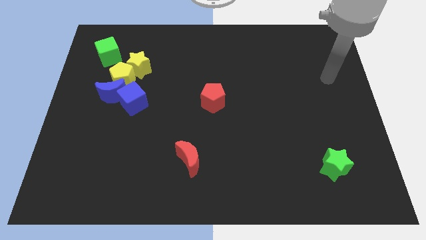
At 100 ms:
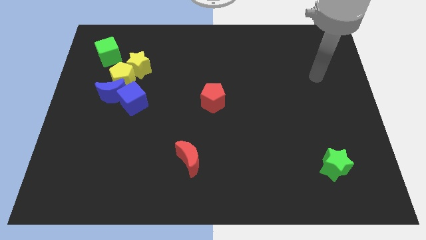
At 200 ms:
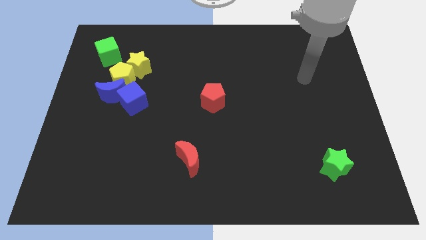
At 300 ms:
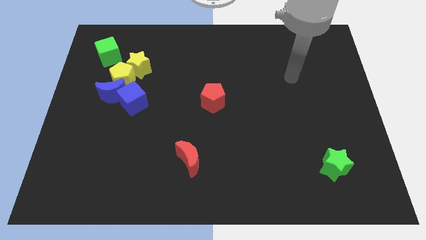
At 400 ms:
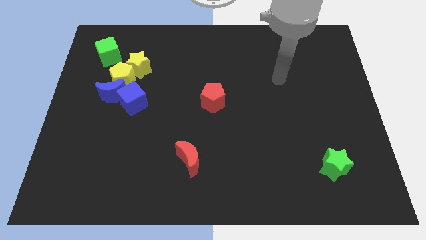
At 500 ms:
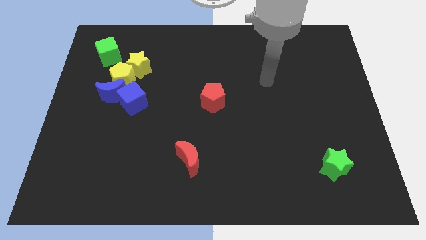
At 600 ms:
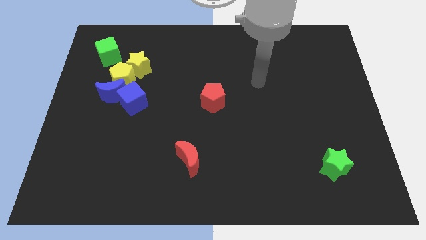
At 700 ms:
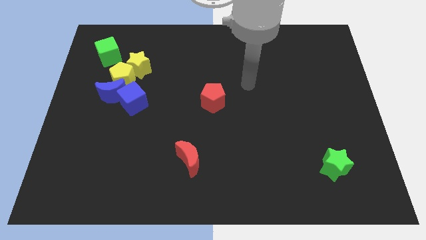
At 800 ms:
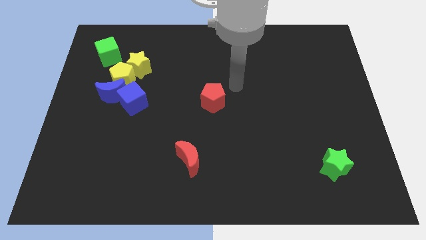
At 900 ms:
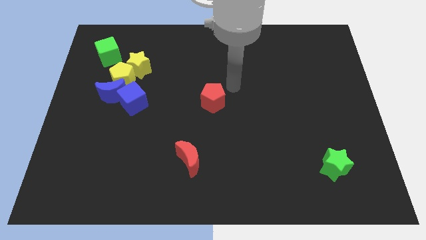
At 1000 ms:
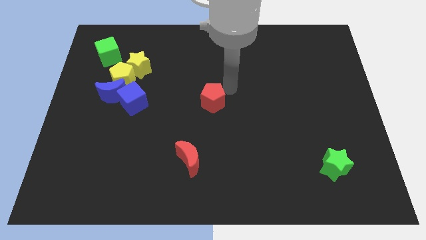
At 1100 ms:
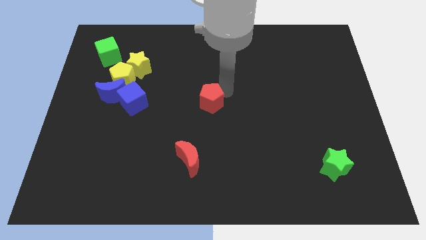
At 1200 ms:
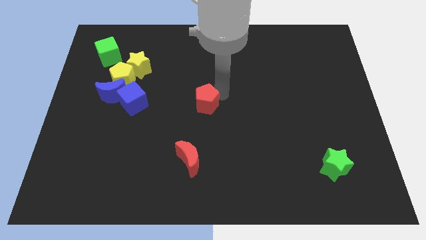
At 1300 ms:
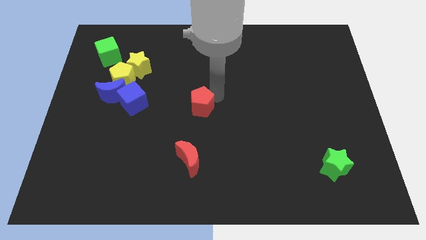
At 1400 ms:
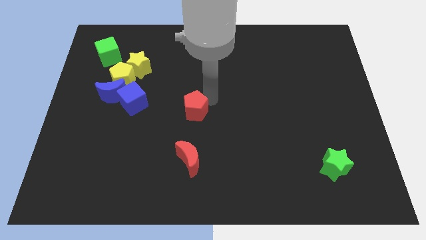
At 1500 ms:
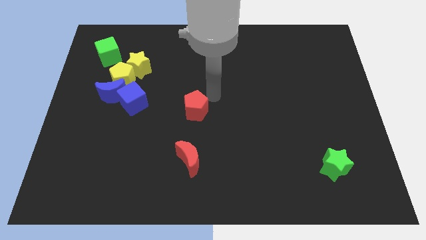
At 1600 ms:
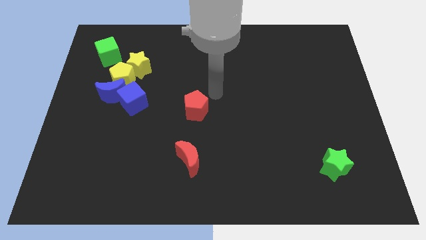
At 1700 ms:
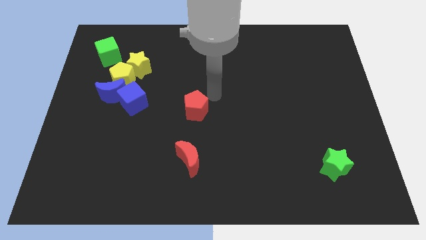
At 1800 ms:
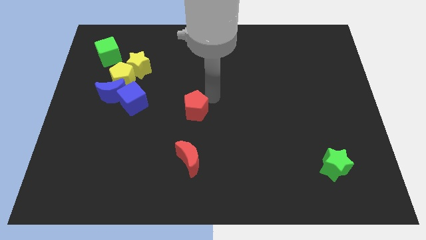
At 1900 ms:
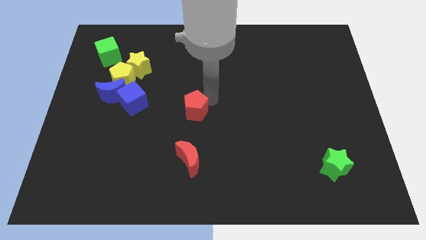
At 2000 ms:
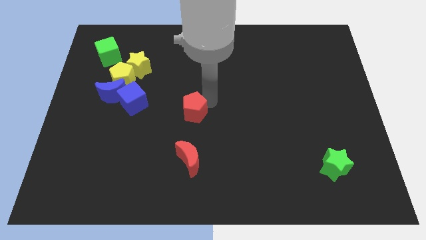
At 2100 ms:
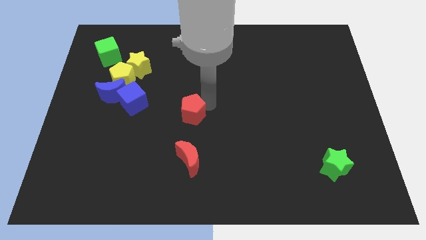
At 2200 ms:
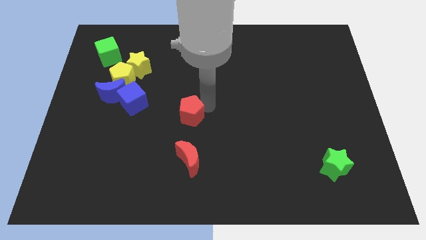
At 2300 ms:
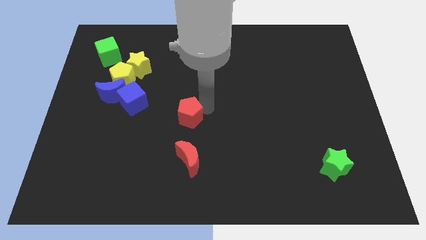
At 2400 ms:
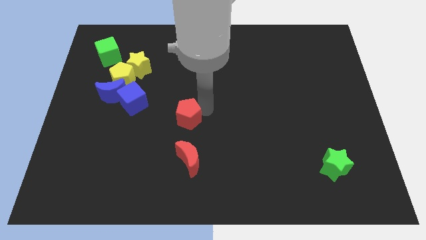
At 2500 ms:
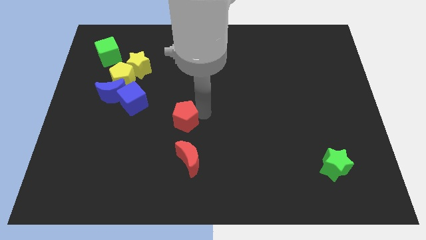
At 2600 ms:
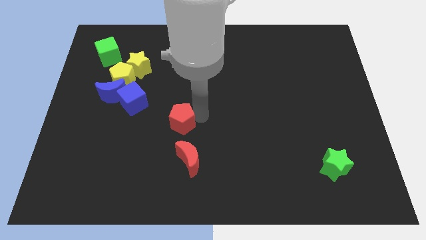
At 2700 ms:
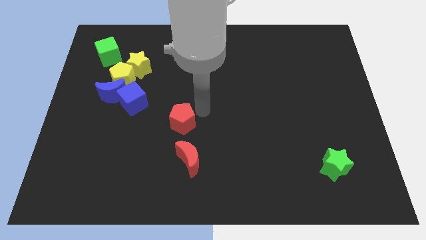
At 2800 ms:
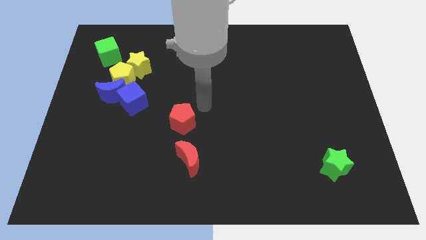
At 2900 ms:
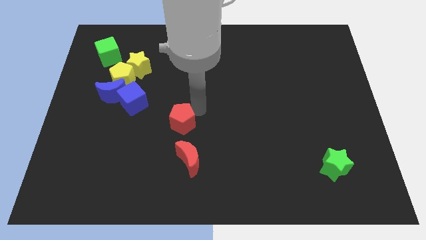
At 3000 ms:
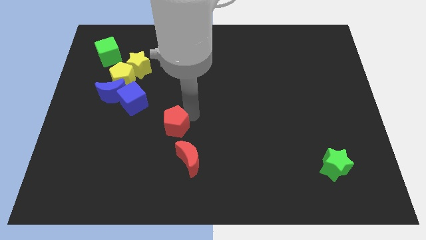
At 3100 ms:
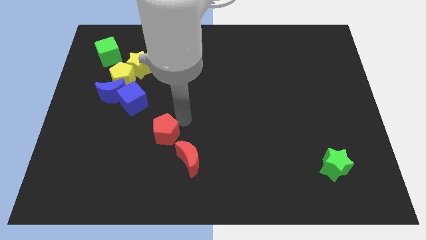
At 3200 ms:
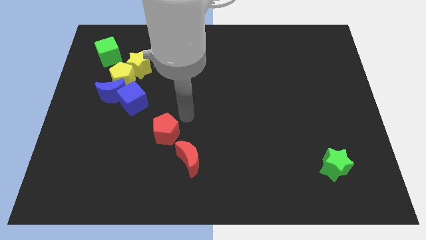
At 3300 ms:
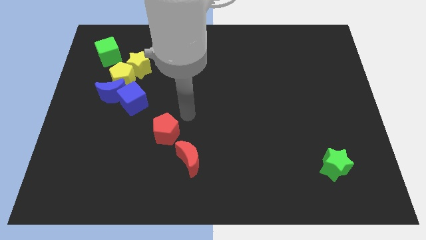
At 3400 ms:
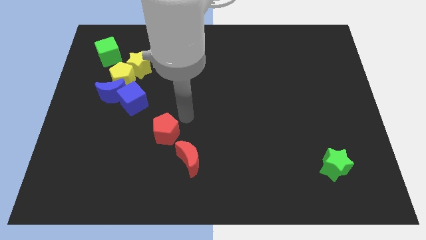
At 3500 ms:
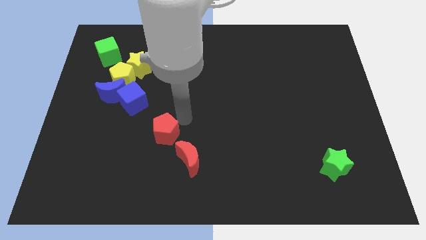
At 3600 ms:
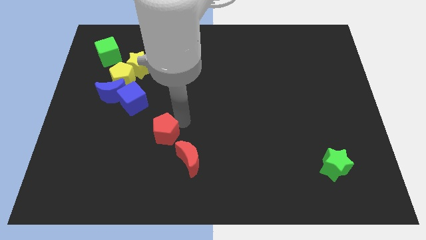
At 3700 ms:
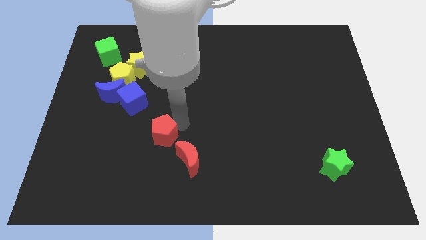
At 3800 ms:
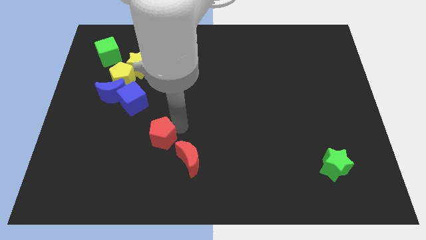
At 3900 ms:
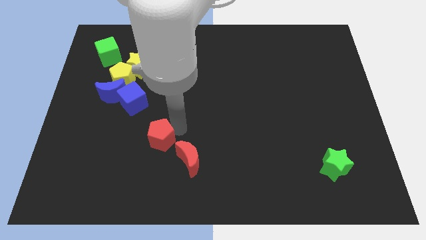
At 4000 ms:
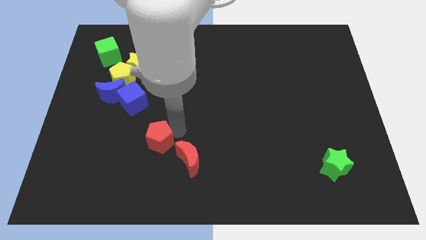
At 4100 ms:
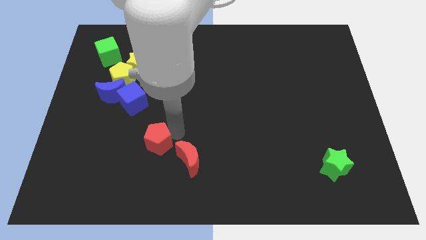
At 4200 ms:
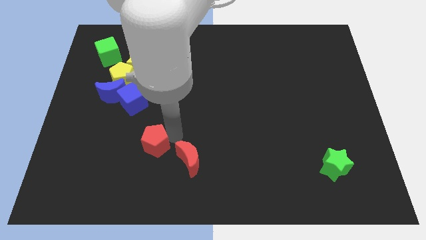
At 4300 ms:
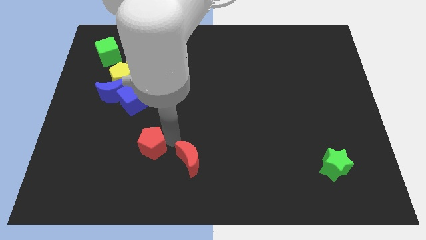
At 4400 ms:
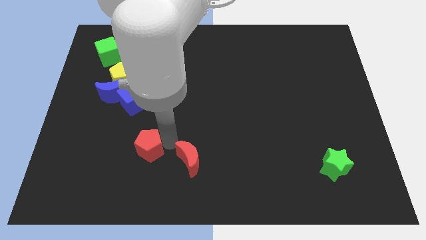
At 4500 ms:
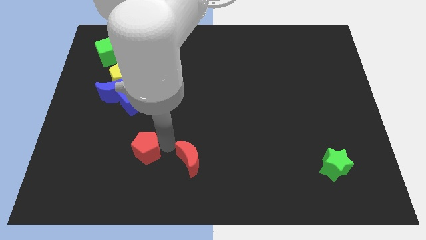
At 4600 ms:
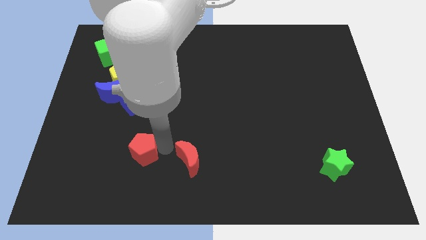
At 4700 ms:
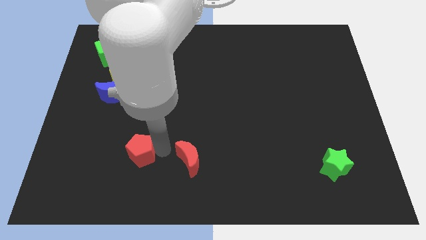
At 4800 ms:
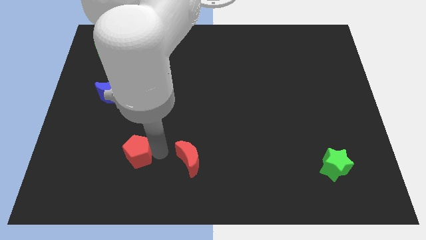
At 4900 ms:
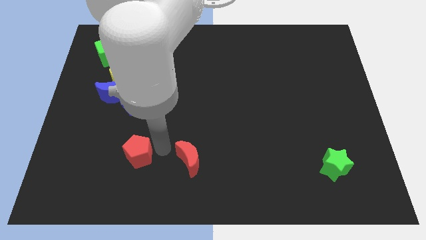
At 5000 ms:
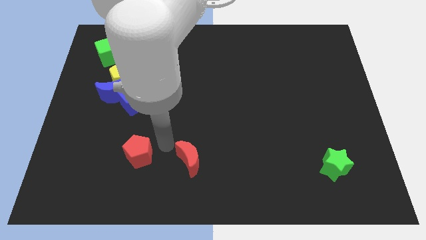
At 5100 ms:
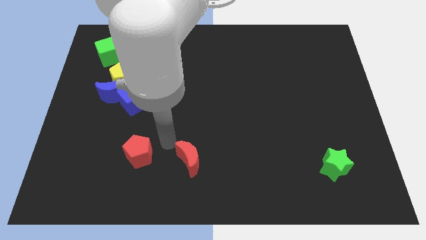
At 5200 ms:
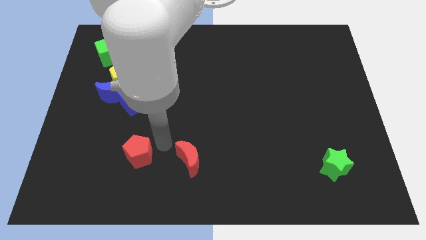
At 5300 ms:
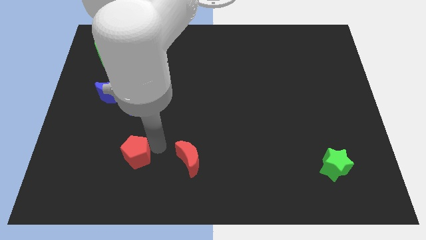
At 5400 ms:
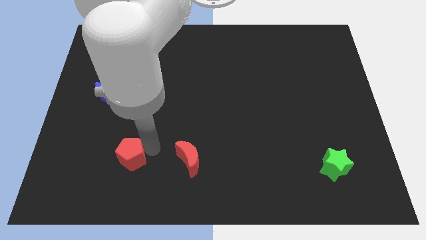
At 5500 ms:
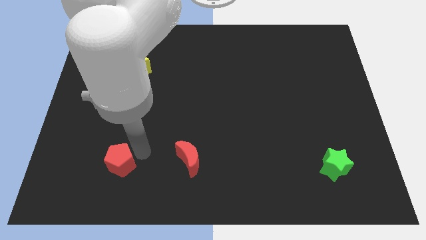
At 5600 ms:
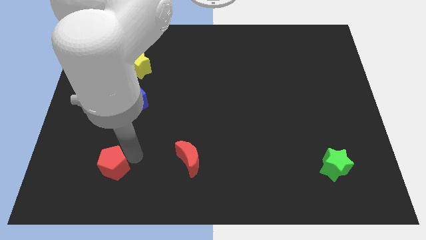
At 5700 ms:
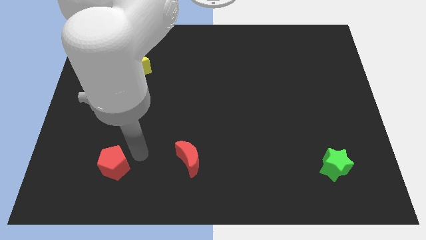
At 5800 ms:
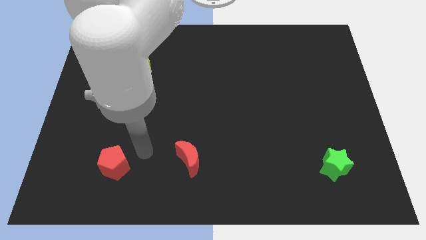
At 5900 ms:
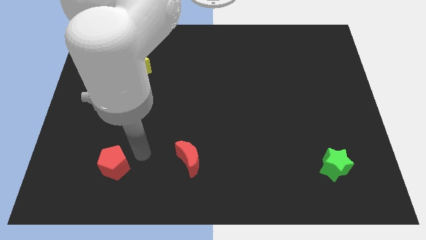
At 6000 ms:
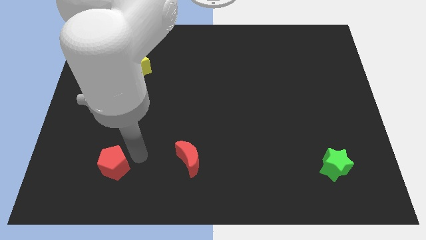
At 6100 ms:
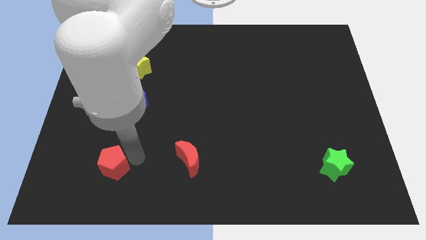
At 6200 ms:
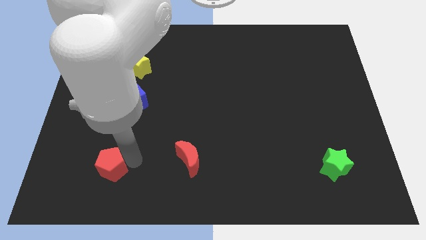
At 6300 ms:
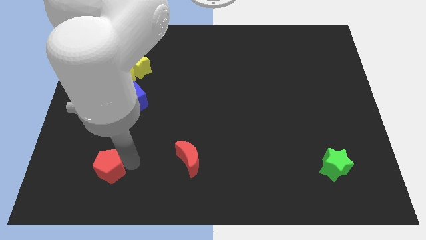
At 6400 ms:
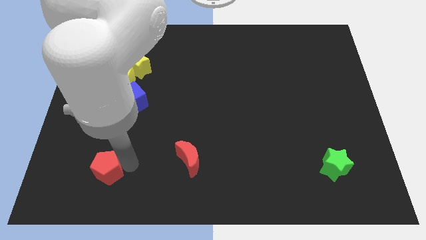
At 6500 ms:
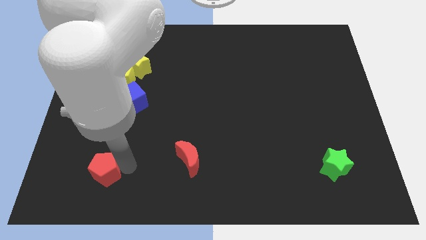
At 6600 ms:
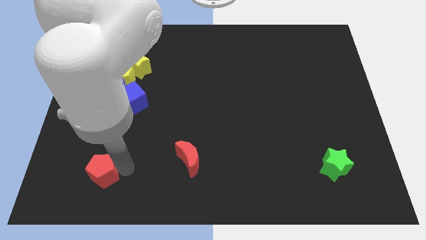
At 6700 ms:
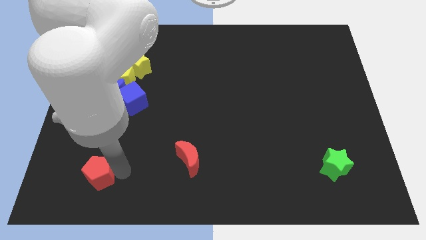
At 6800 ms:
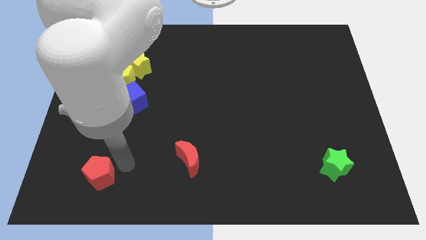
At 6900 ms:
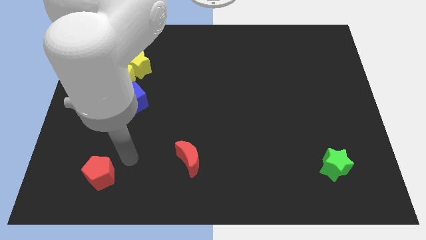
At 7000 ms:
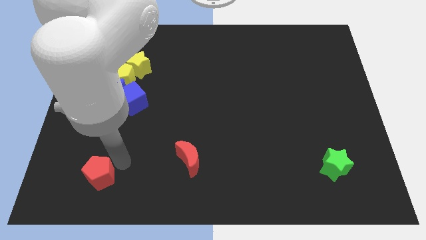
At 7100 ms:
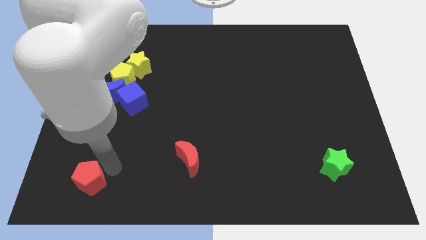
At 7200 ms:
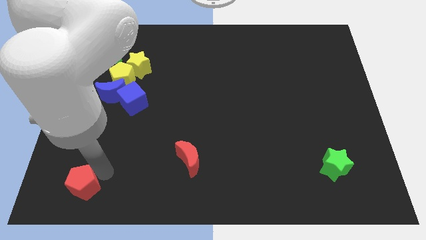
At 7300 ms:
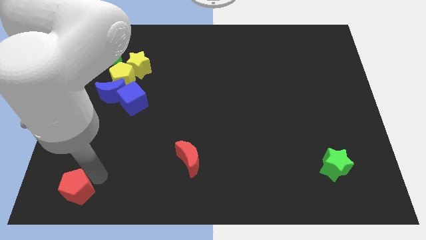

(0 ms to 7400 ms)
push the red pentagon to the bottom left corner
